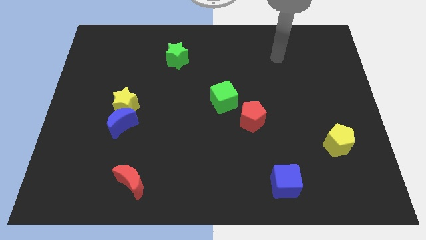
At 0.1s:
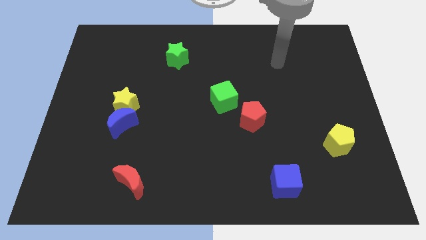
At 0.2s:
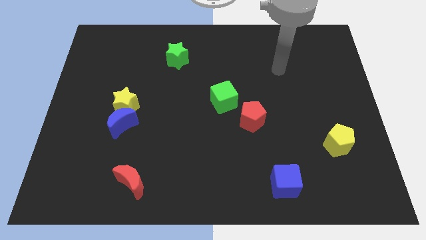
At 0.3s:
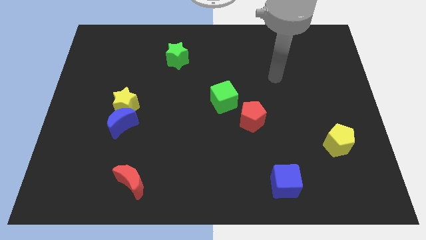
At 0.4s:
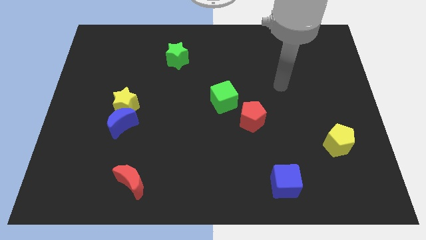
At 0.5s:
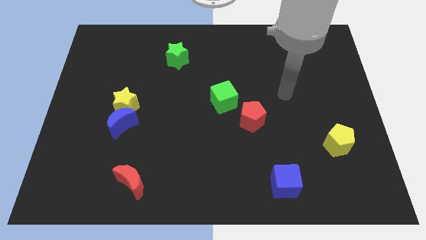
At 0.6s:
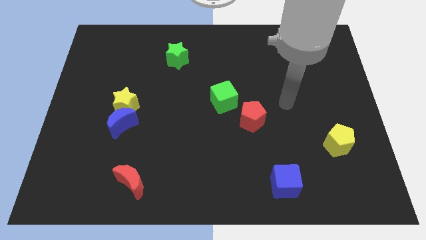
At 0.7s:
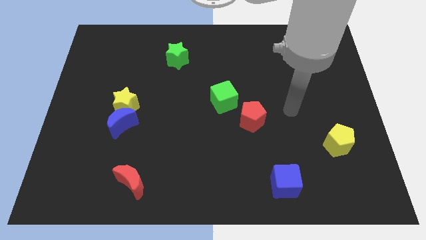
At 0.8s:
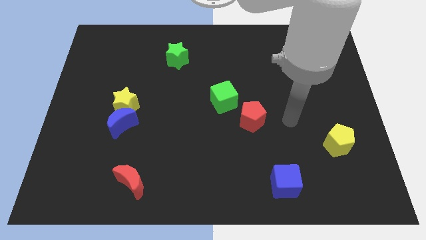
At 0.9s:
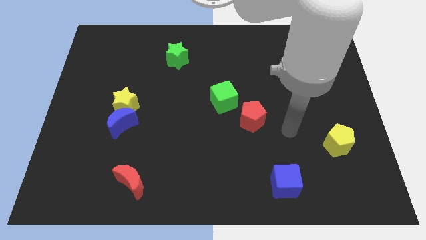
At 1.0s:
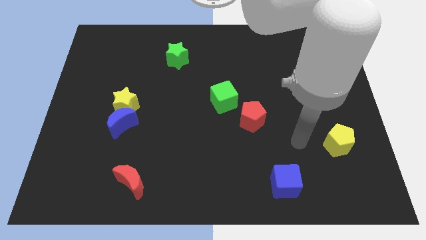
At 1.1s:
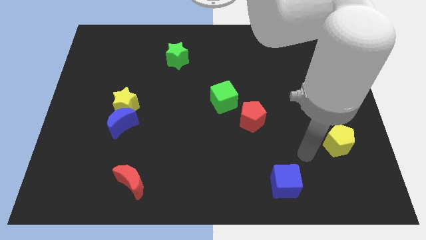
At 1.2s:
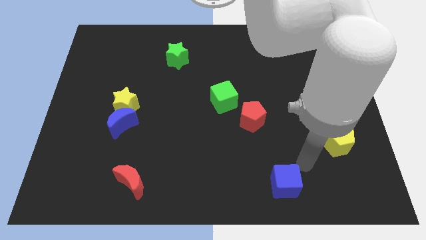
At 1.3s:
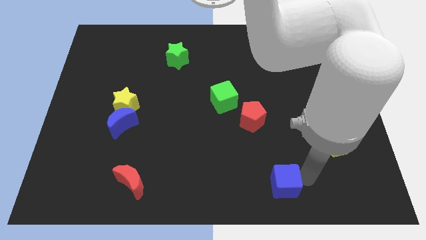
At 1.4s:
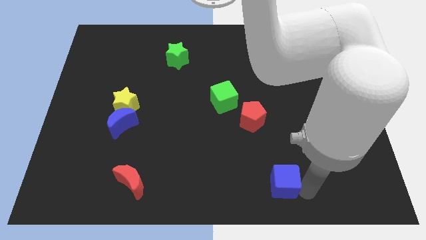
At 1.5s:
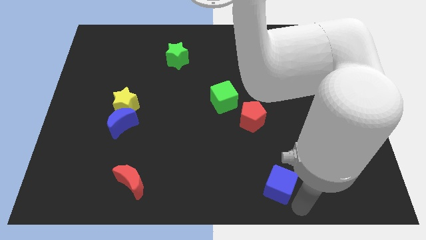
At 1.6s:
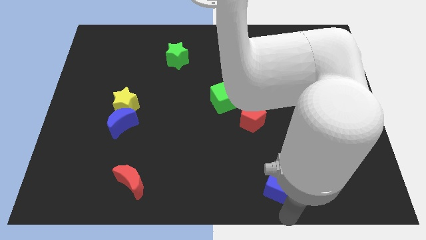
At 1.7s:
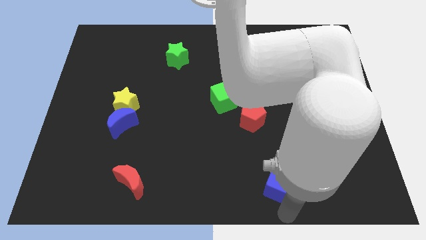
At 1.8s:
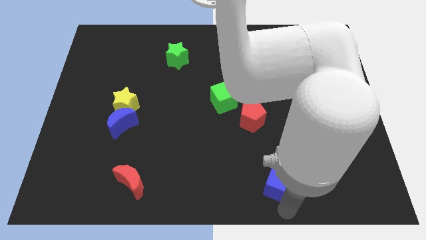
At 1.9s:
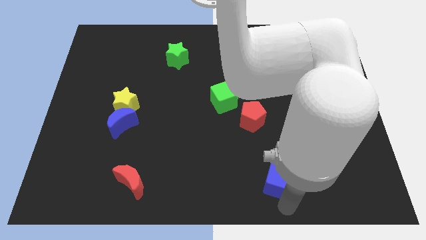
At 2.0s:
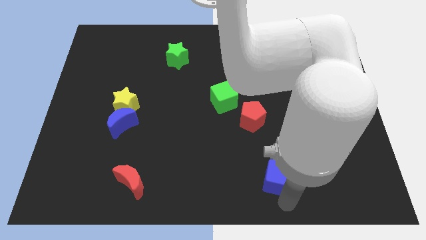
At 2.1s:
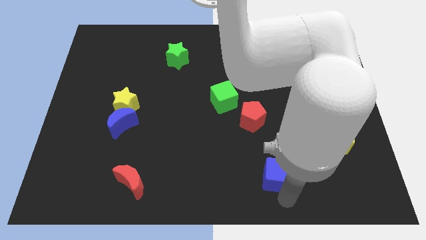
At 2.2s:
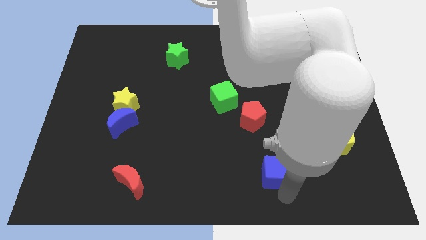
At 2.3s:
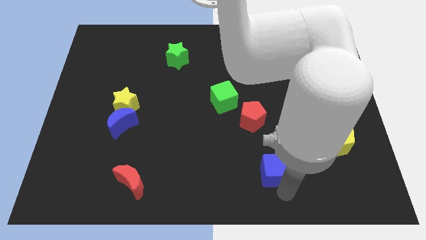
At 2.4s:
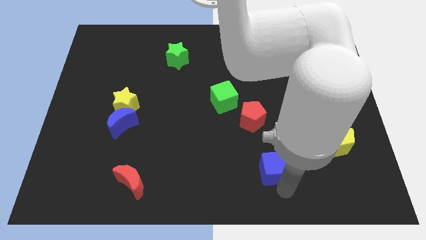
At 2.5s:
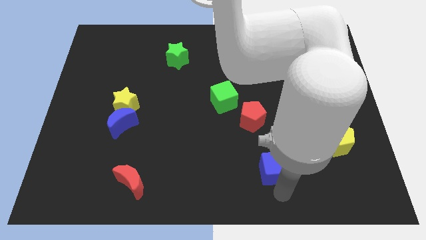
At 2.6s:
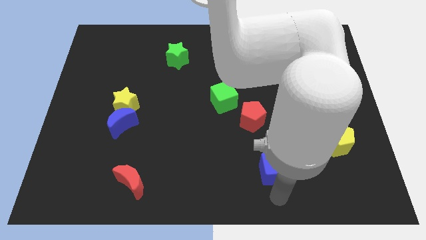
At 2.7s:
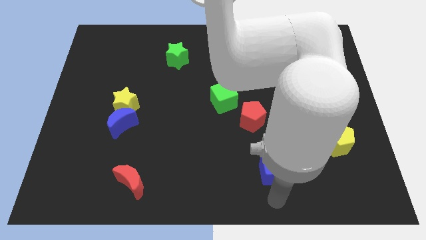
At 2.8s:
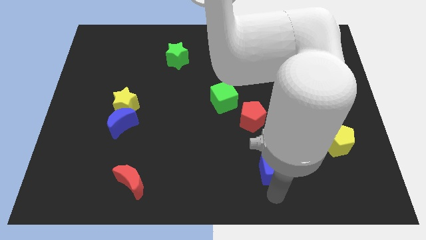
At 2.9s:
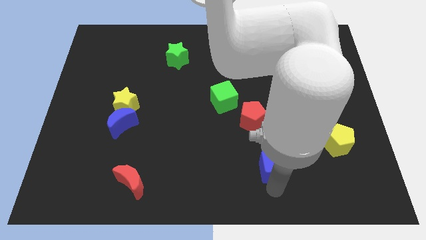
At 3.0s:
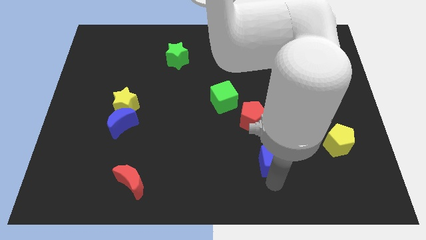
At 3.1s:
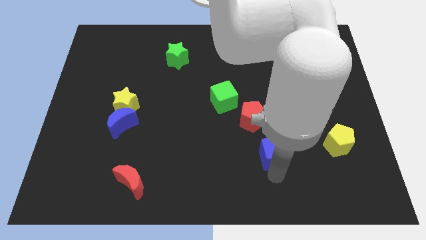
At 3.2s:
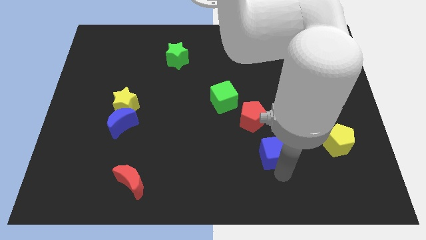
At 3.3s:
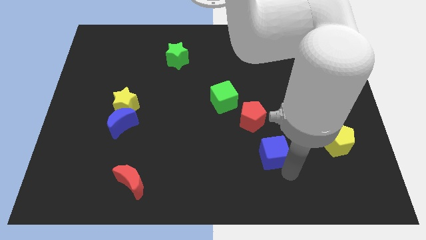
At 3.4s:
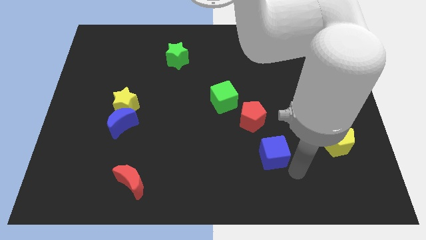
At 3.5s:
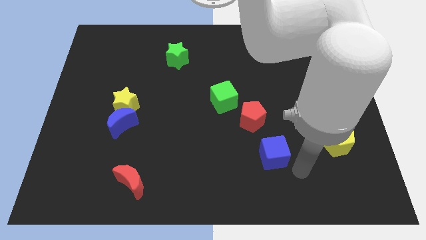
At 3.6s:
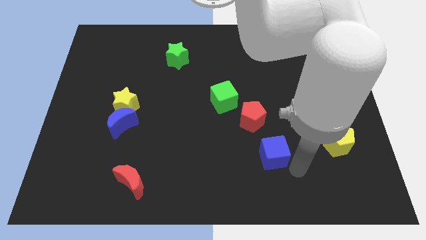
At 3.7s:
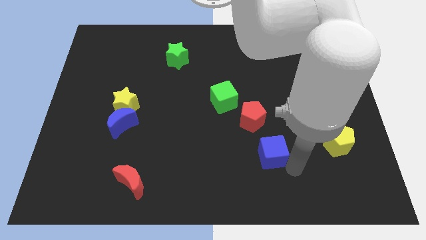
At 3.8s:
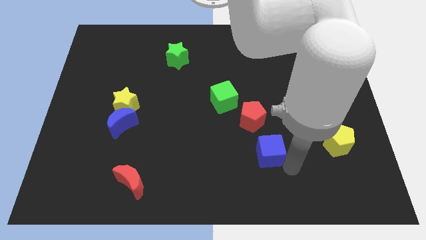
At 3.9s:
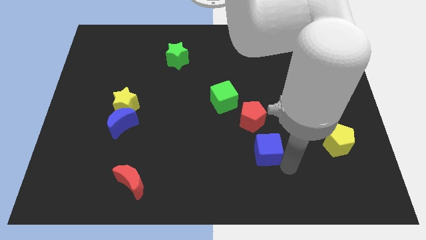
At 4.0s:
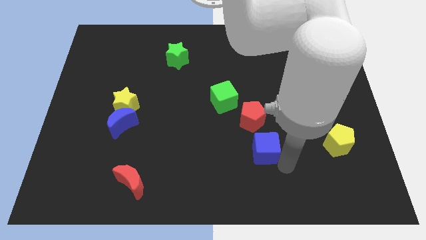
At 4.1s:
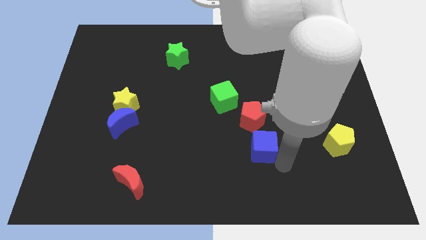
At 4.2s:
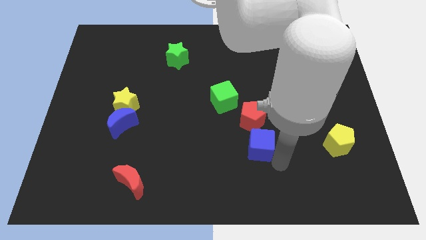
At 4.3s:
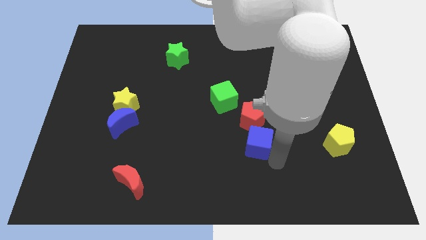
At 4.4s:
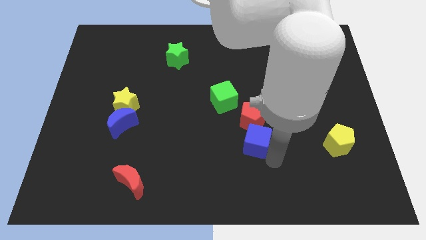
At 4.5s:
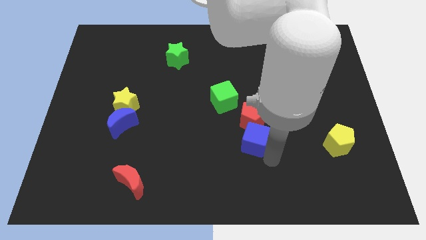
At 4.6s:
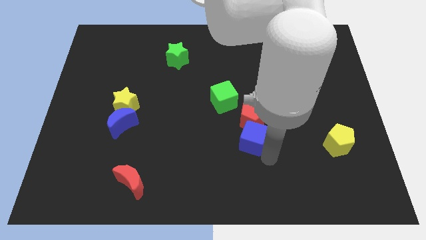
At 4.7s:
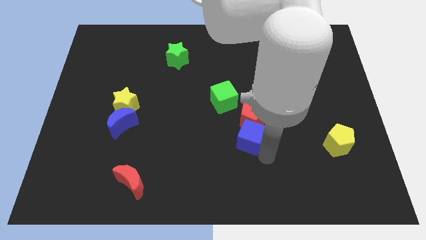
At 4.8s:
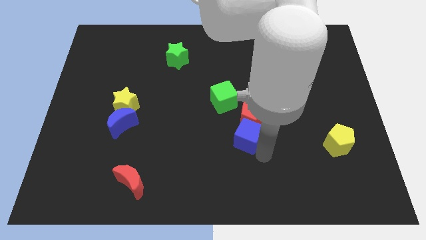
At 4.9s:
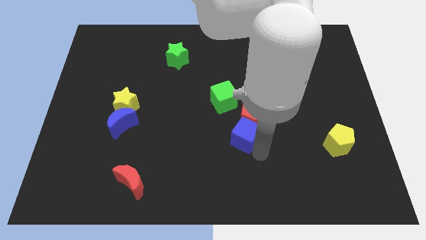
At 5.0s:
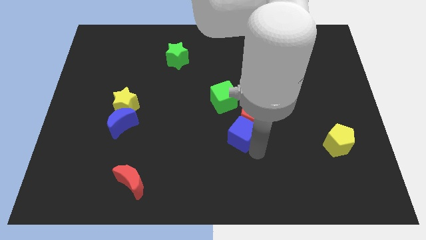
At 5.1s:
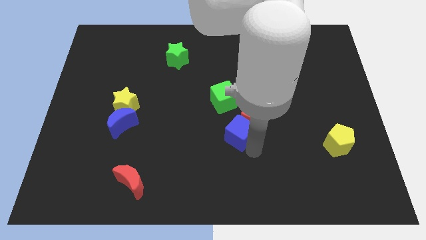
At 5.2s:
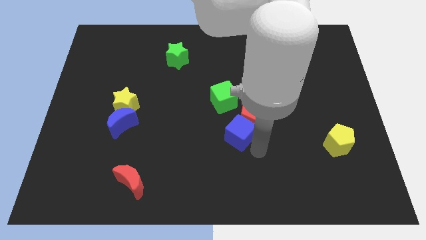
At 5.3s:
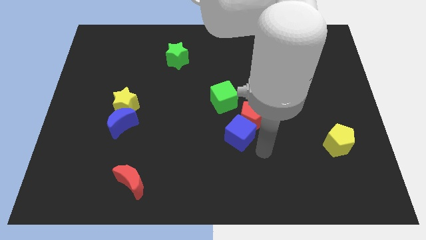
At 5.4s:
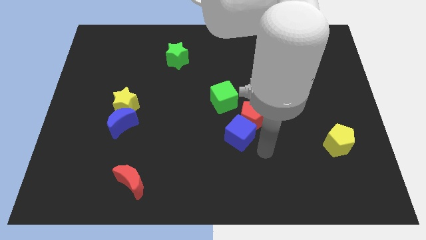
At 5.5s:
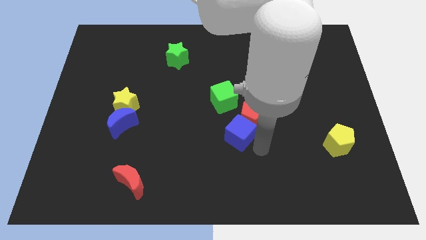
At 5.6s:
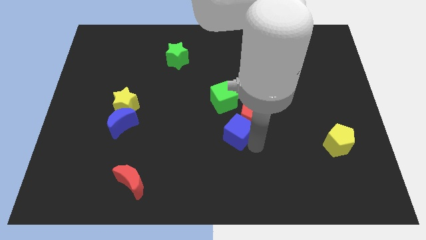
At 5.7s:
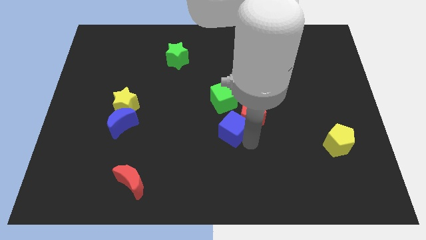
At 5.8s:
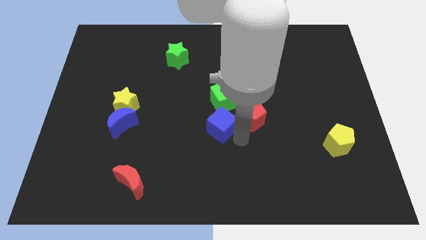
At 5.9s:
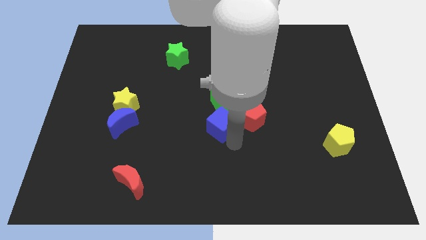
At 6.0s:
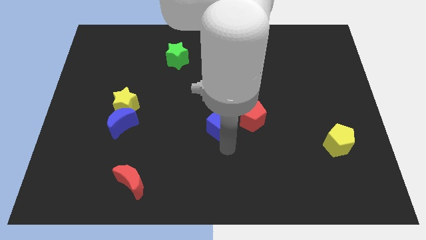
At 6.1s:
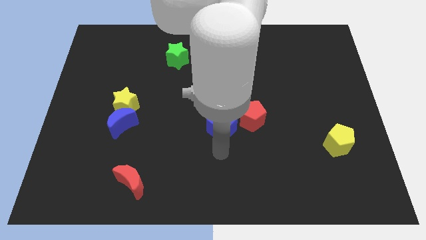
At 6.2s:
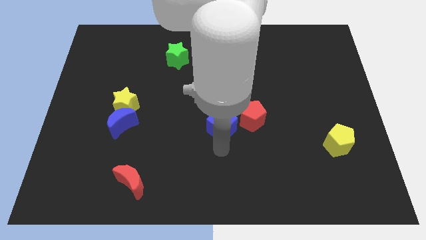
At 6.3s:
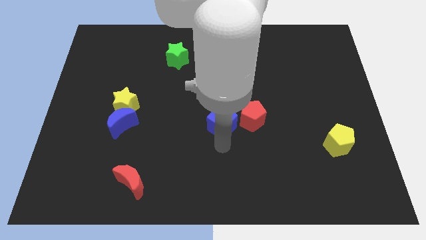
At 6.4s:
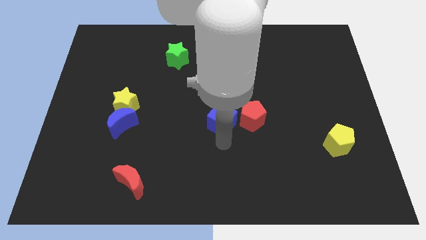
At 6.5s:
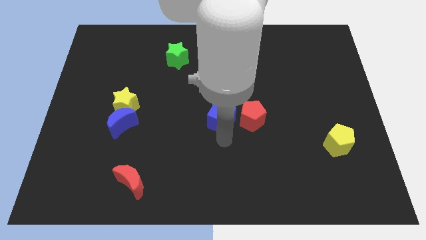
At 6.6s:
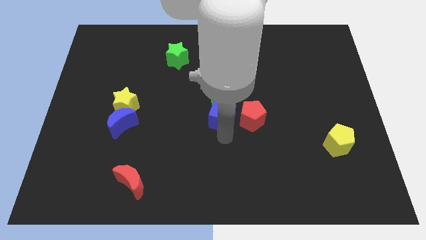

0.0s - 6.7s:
move the blue cube to the green cube

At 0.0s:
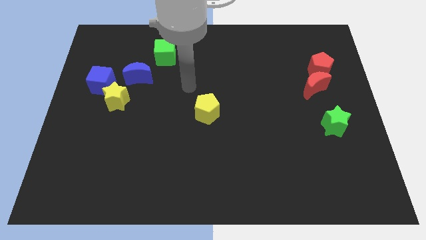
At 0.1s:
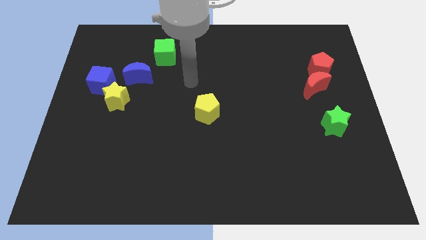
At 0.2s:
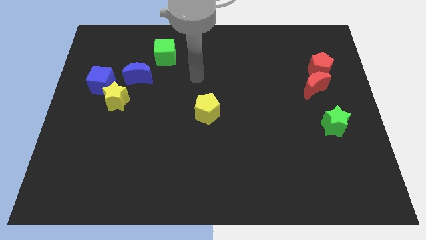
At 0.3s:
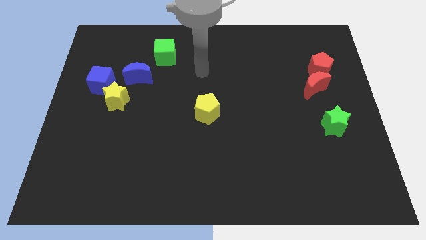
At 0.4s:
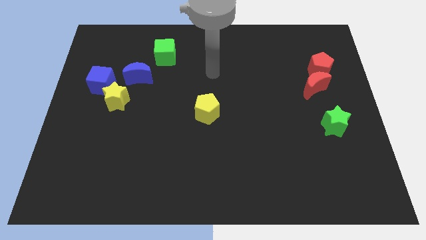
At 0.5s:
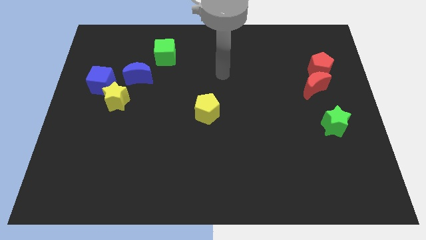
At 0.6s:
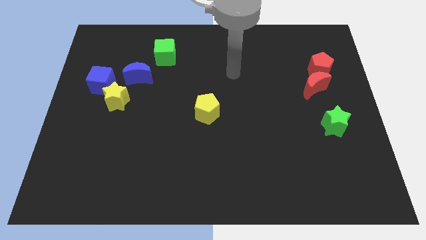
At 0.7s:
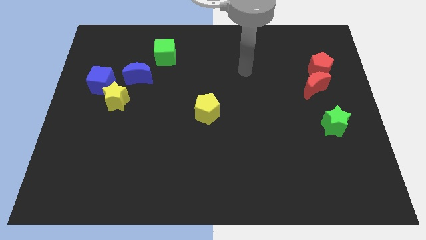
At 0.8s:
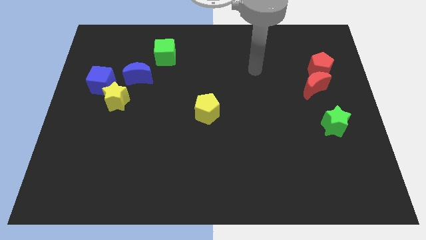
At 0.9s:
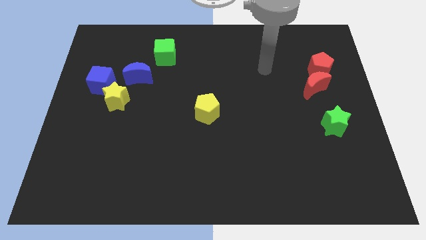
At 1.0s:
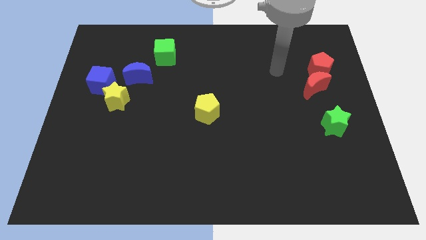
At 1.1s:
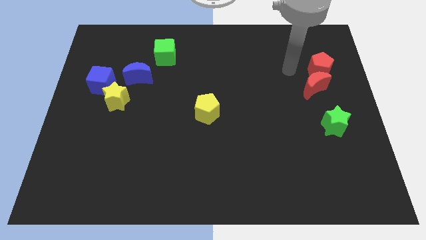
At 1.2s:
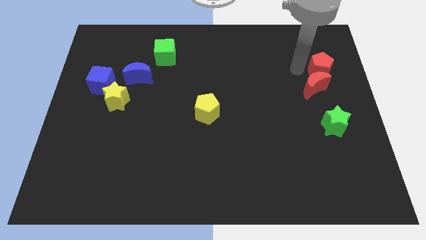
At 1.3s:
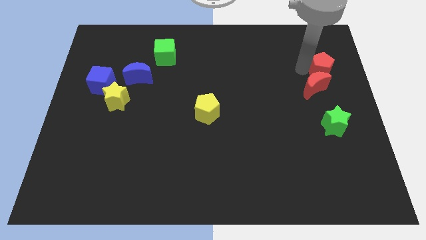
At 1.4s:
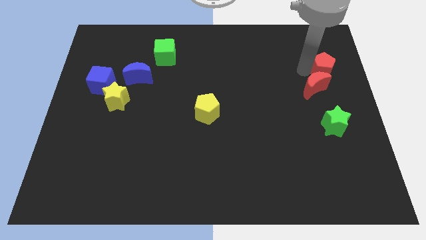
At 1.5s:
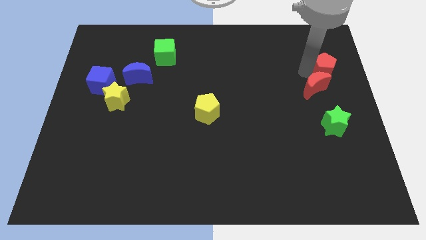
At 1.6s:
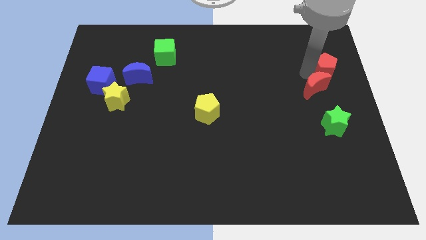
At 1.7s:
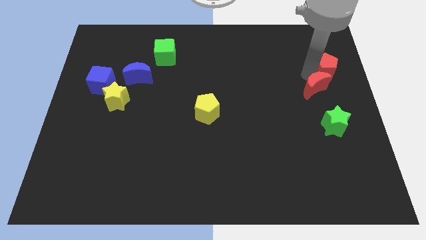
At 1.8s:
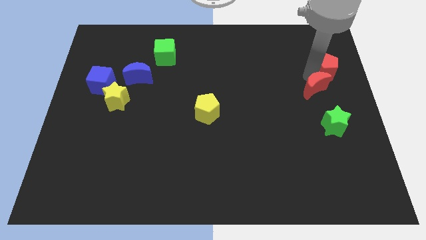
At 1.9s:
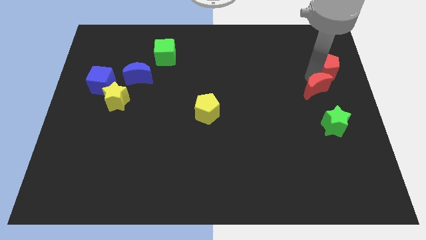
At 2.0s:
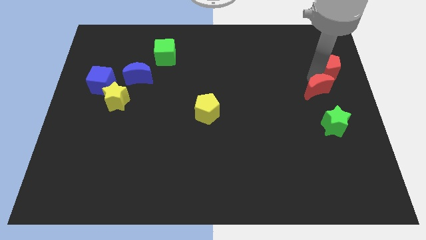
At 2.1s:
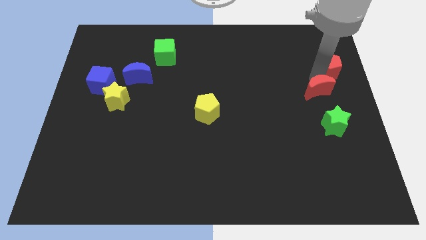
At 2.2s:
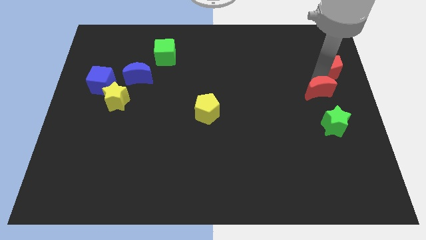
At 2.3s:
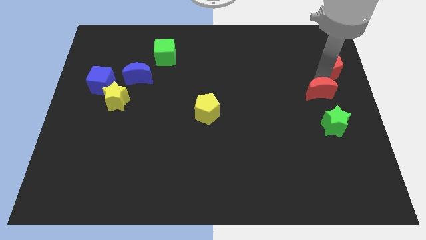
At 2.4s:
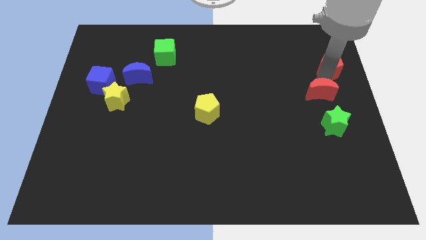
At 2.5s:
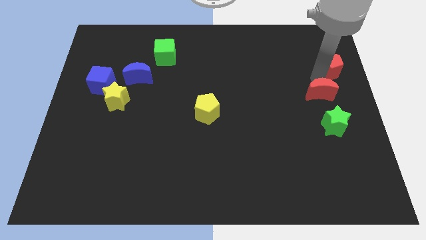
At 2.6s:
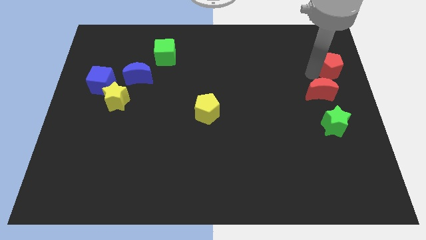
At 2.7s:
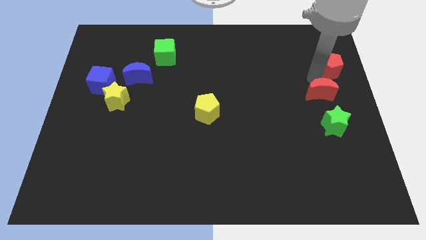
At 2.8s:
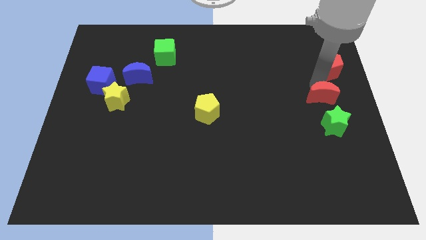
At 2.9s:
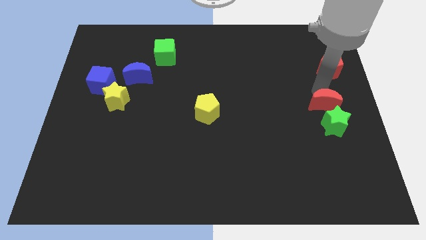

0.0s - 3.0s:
move the red moon to the green star
